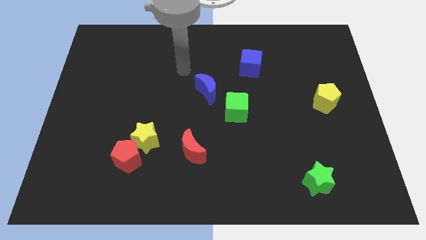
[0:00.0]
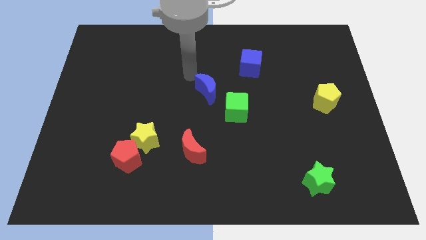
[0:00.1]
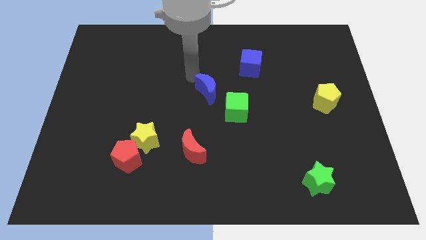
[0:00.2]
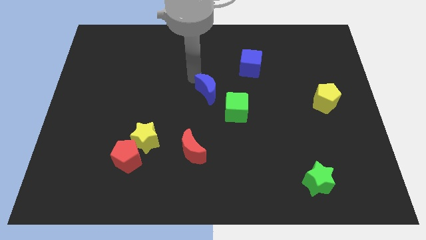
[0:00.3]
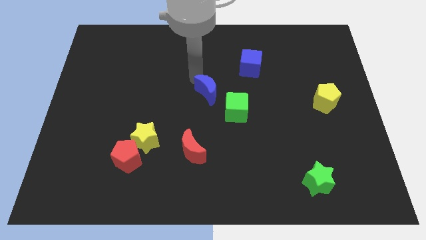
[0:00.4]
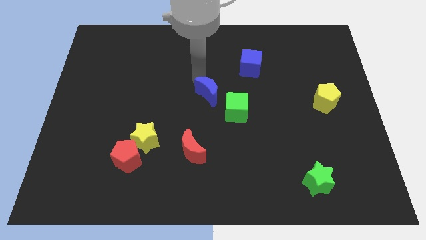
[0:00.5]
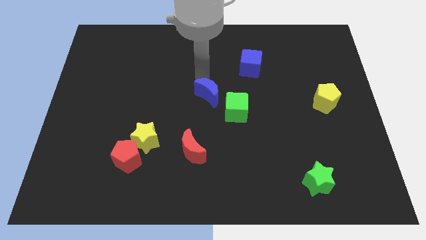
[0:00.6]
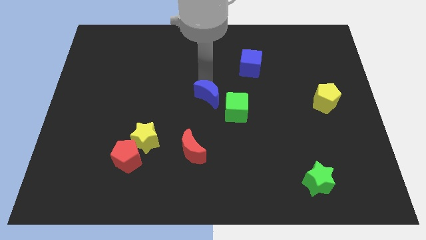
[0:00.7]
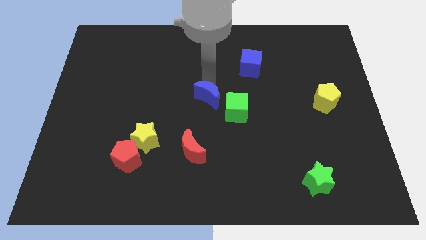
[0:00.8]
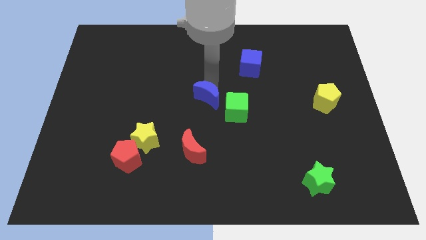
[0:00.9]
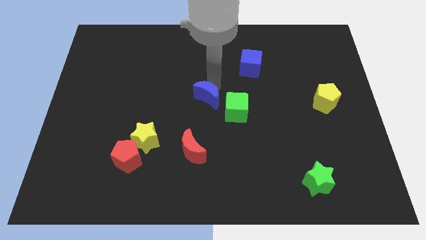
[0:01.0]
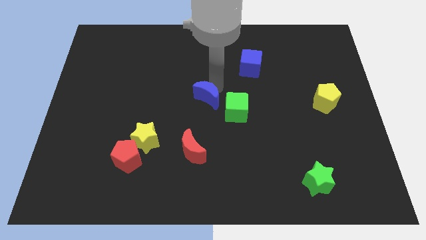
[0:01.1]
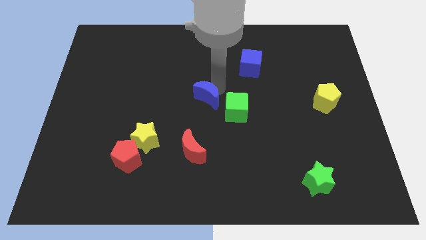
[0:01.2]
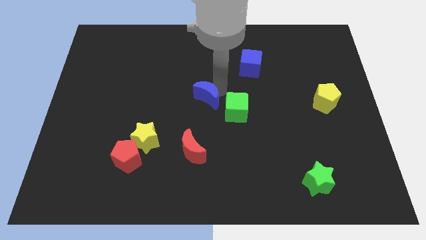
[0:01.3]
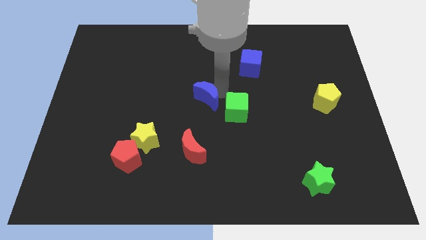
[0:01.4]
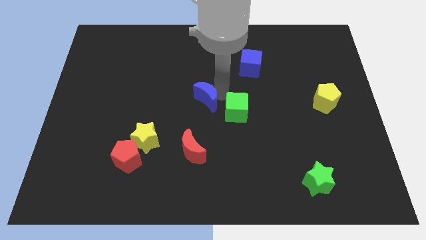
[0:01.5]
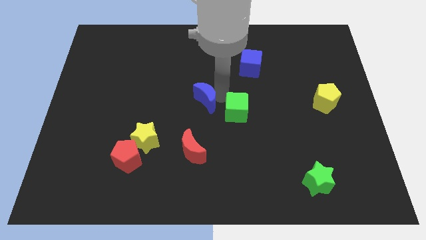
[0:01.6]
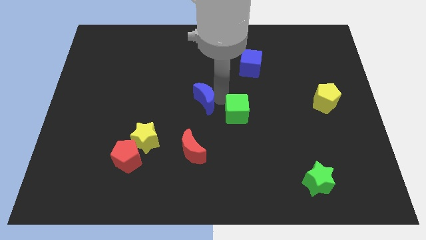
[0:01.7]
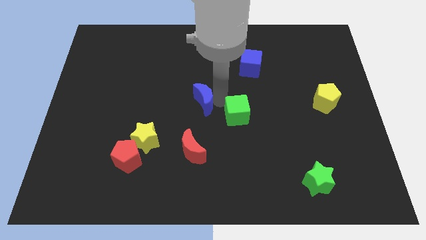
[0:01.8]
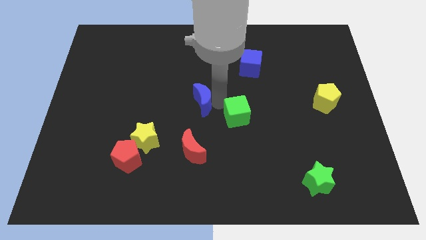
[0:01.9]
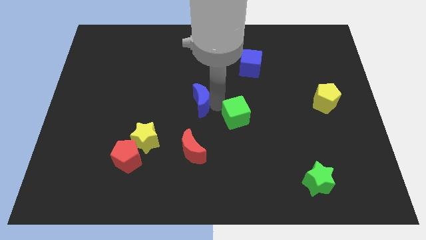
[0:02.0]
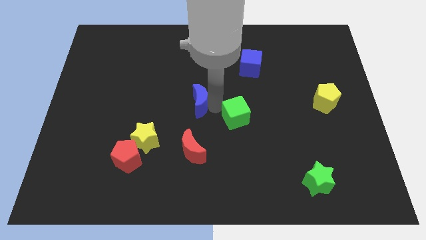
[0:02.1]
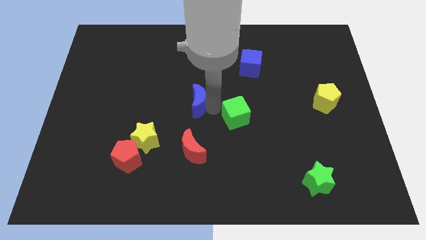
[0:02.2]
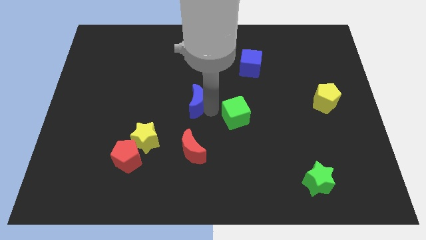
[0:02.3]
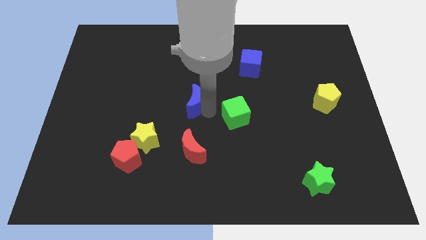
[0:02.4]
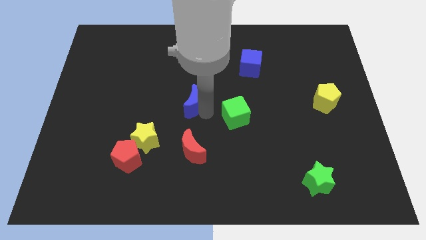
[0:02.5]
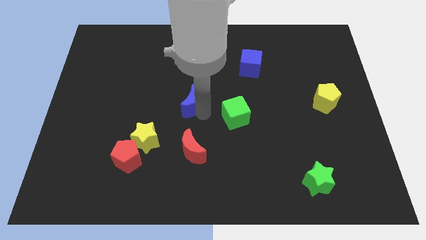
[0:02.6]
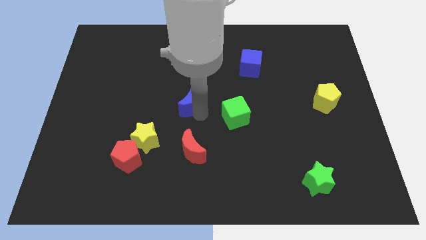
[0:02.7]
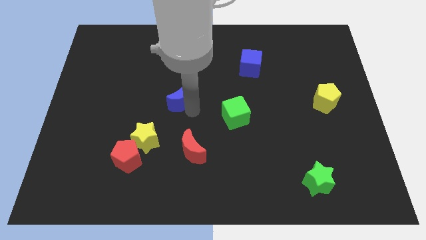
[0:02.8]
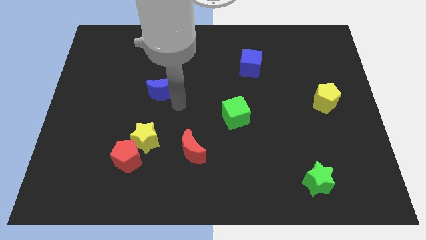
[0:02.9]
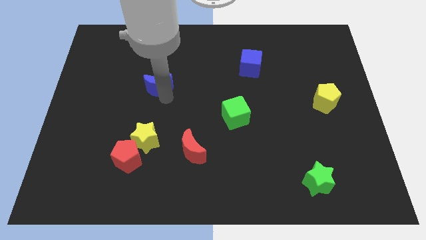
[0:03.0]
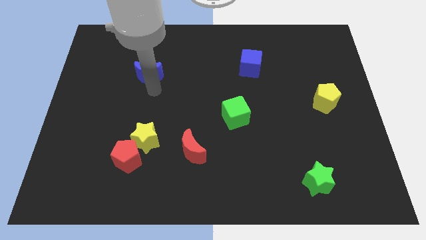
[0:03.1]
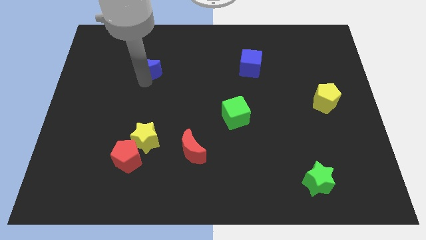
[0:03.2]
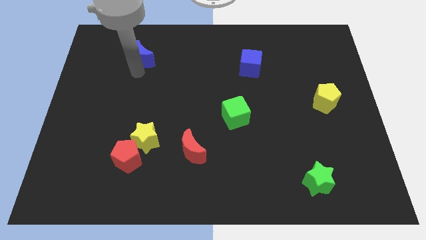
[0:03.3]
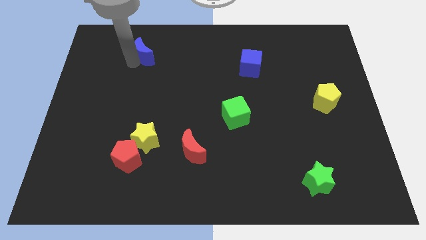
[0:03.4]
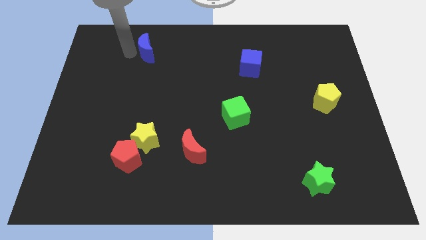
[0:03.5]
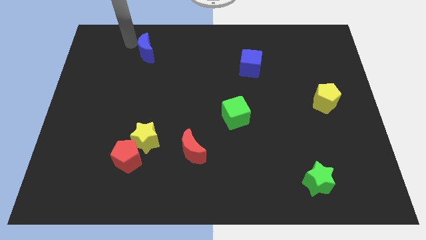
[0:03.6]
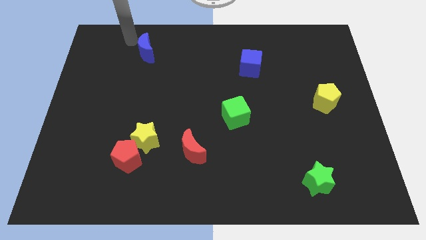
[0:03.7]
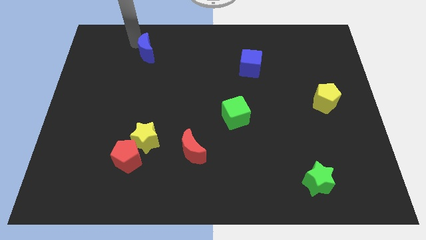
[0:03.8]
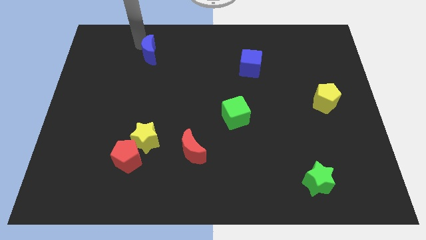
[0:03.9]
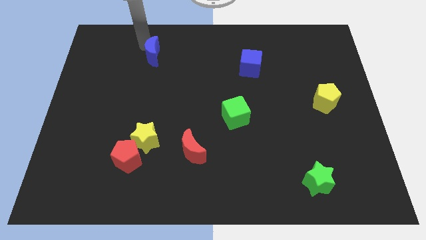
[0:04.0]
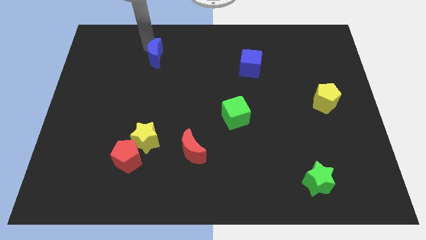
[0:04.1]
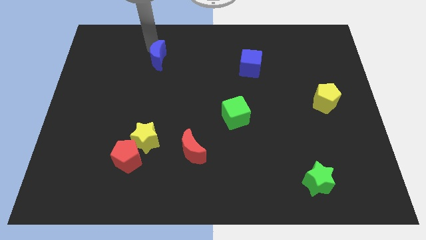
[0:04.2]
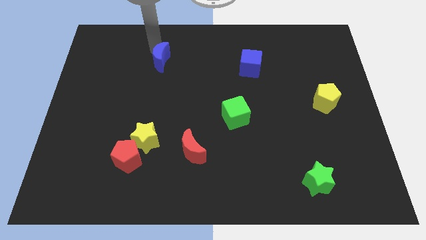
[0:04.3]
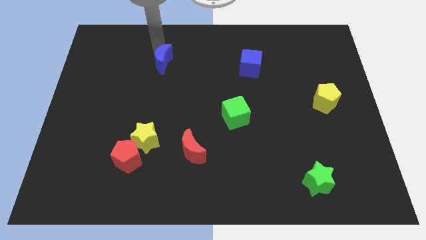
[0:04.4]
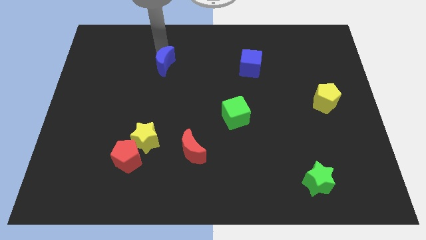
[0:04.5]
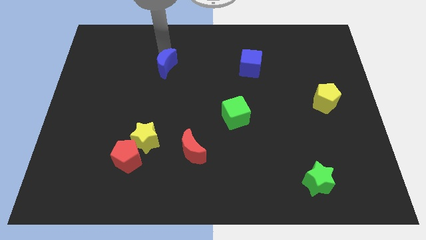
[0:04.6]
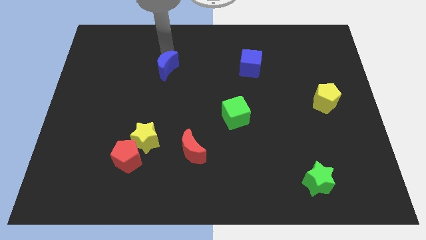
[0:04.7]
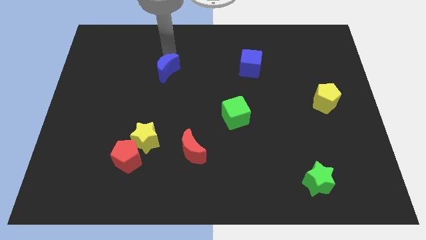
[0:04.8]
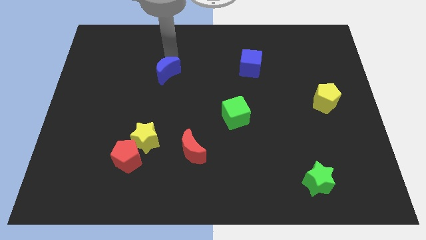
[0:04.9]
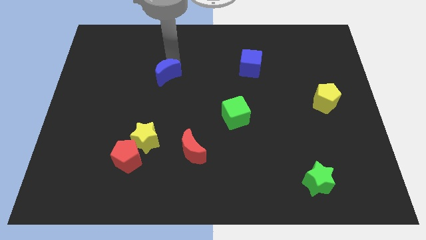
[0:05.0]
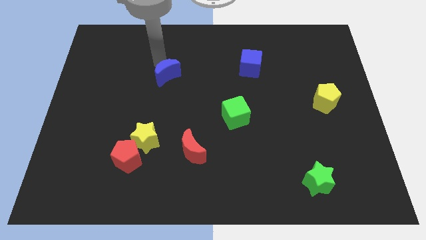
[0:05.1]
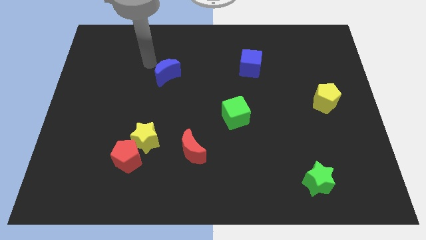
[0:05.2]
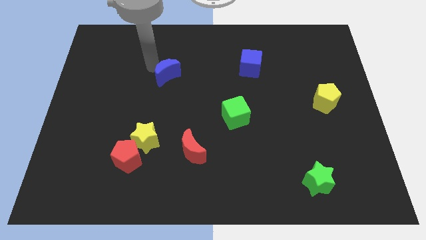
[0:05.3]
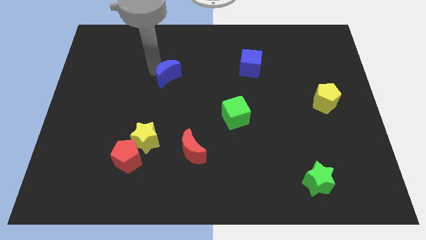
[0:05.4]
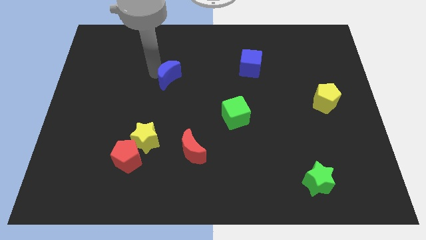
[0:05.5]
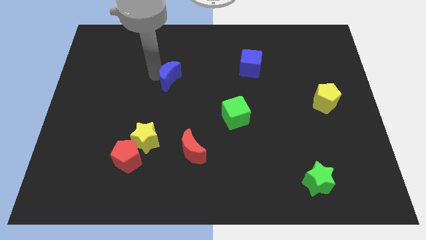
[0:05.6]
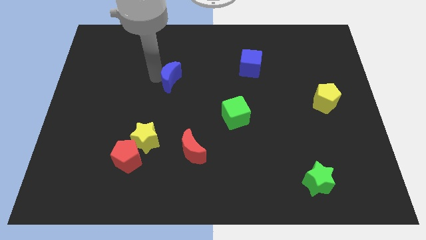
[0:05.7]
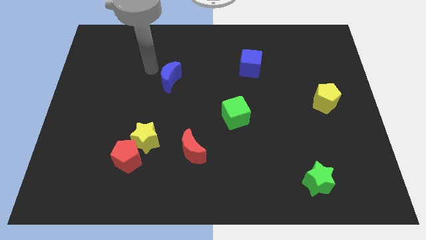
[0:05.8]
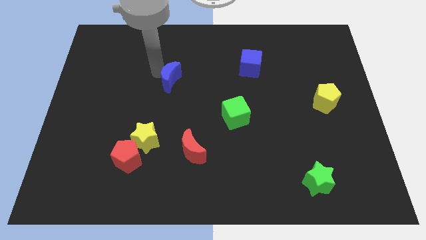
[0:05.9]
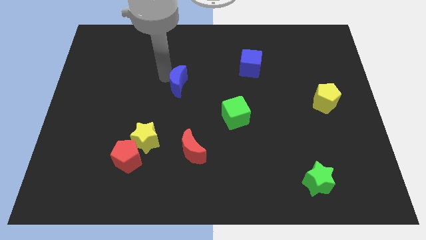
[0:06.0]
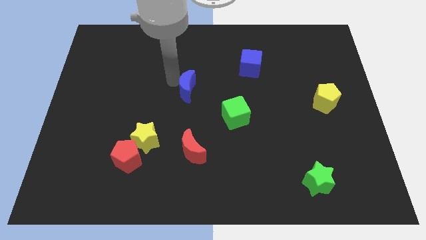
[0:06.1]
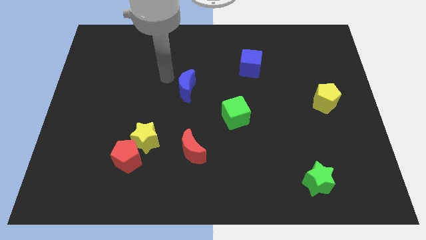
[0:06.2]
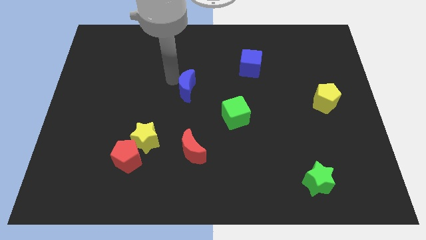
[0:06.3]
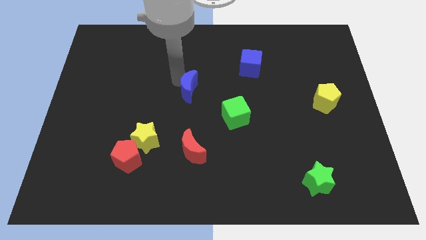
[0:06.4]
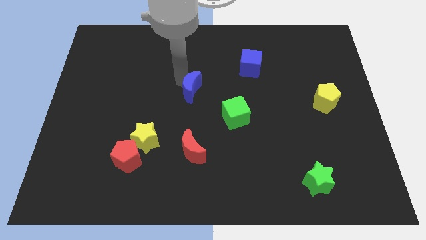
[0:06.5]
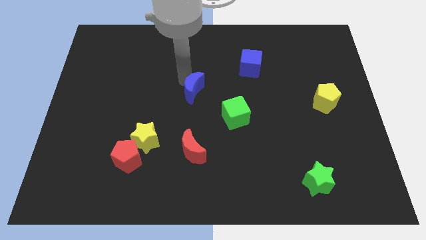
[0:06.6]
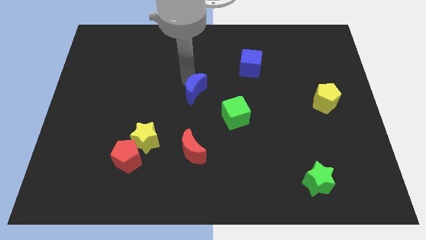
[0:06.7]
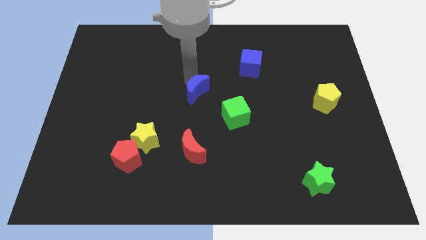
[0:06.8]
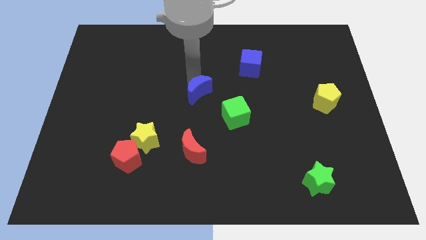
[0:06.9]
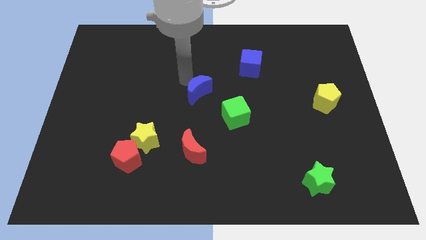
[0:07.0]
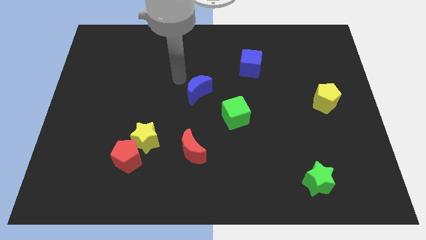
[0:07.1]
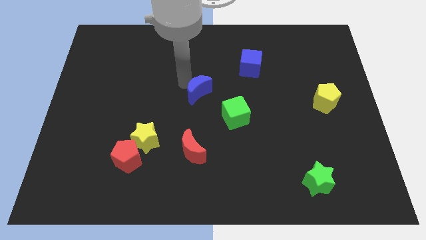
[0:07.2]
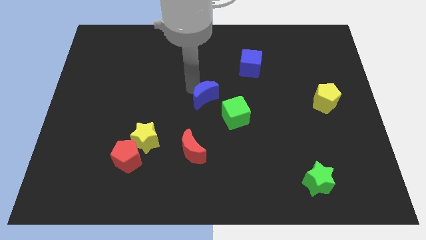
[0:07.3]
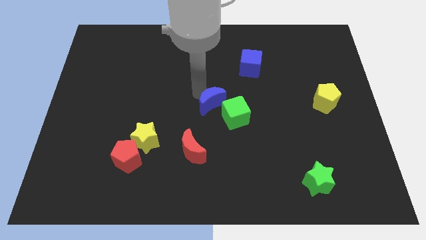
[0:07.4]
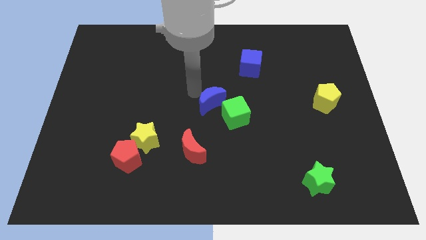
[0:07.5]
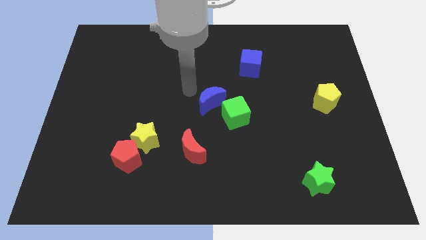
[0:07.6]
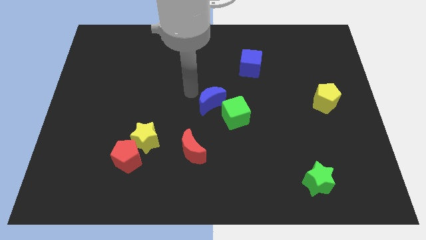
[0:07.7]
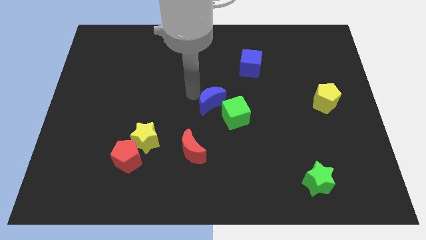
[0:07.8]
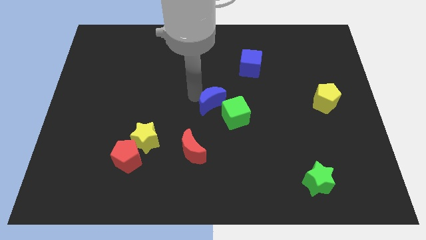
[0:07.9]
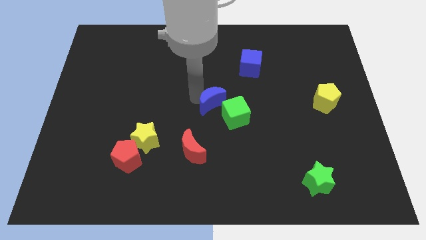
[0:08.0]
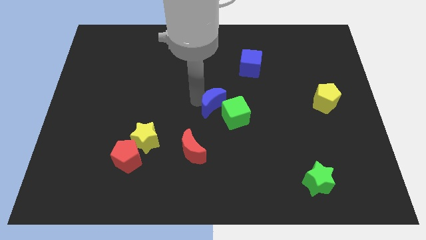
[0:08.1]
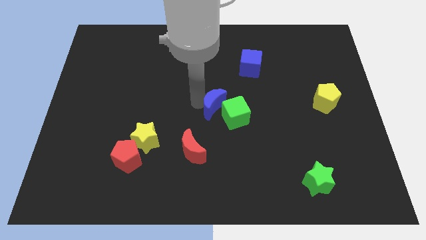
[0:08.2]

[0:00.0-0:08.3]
move the blue moon close to the green cube
